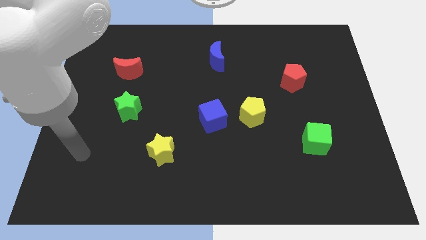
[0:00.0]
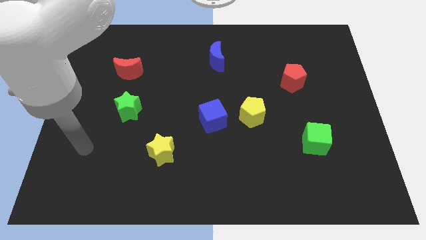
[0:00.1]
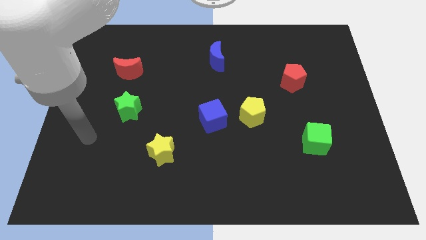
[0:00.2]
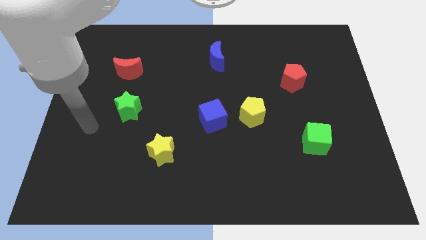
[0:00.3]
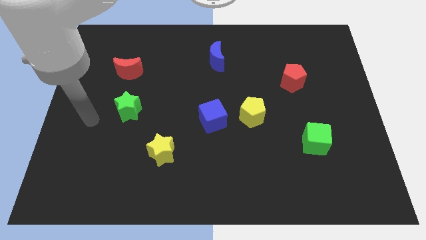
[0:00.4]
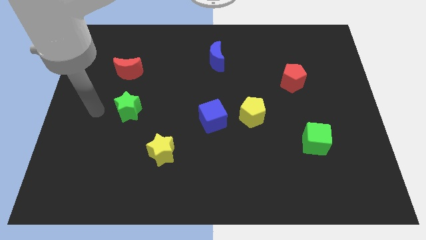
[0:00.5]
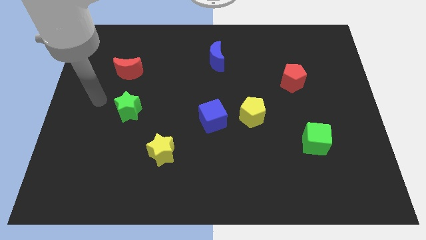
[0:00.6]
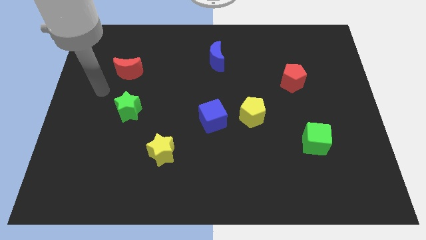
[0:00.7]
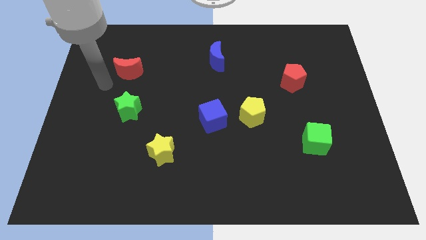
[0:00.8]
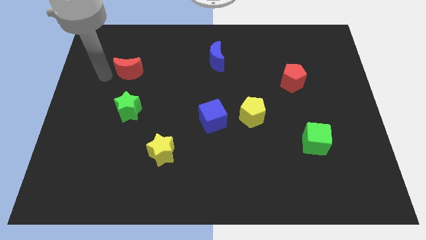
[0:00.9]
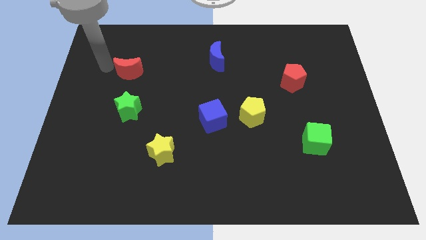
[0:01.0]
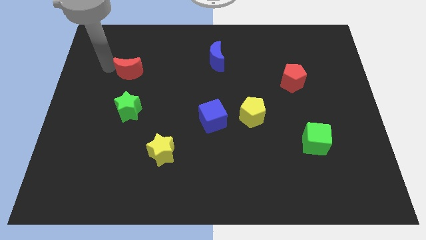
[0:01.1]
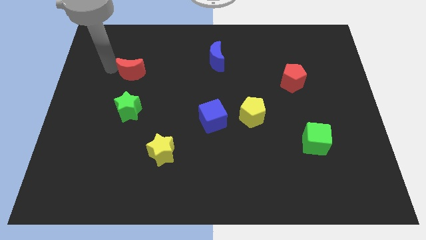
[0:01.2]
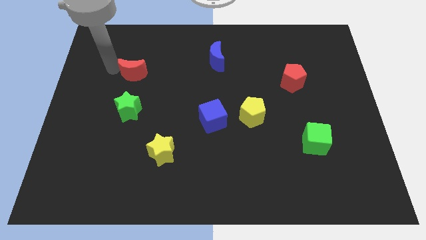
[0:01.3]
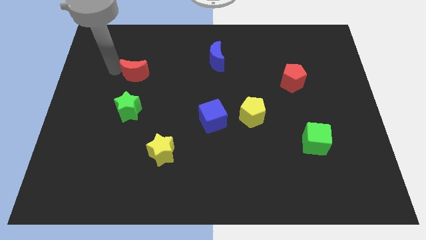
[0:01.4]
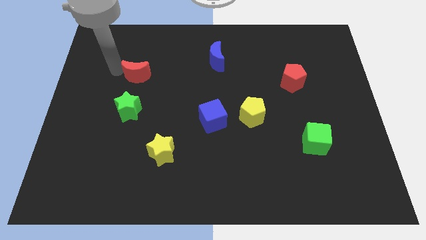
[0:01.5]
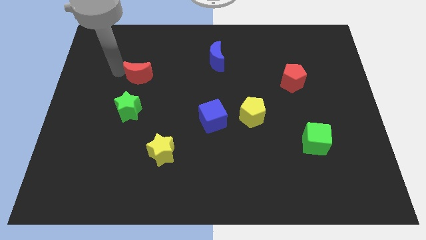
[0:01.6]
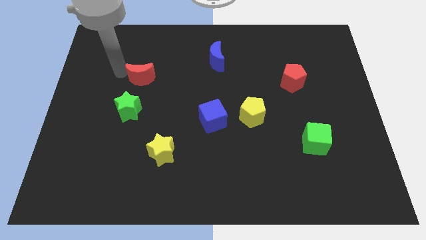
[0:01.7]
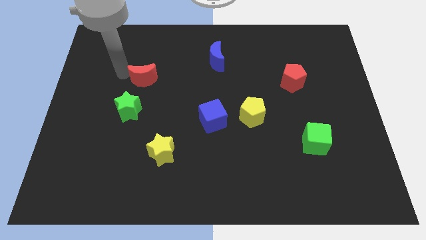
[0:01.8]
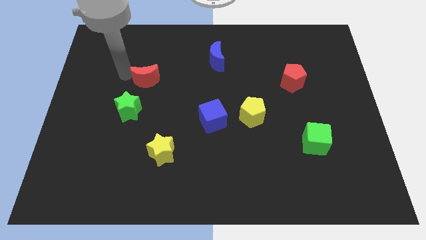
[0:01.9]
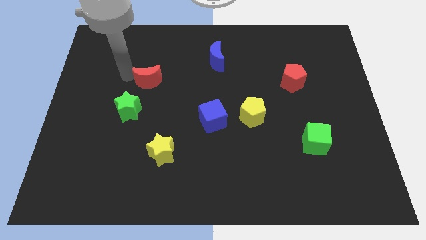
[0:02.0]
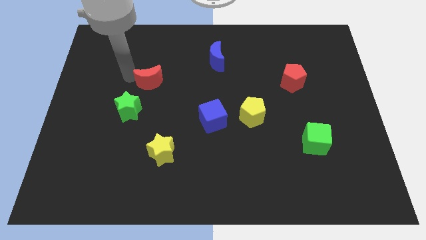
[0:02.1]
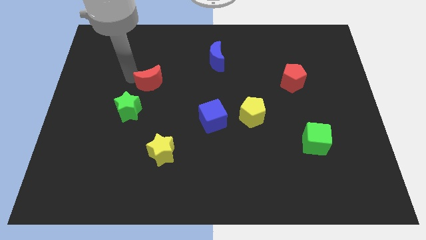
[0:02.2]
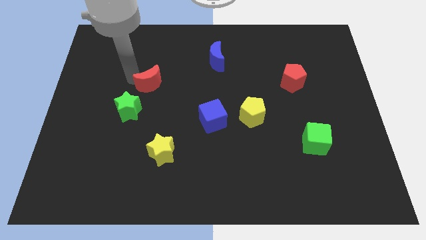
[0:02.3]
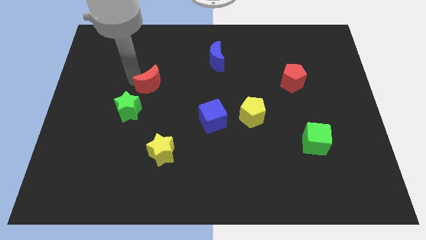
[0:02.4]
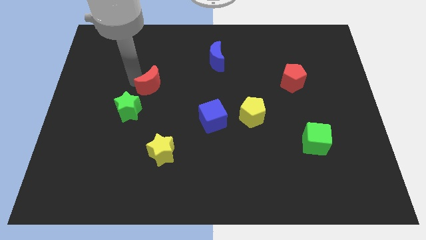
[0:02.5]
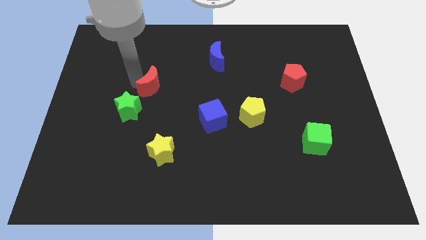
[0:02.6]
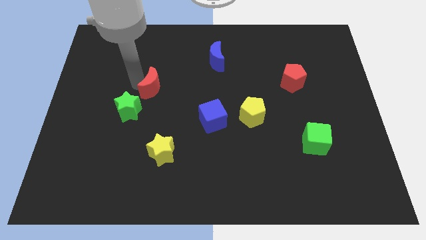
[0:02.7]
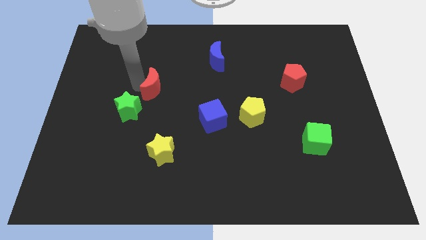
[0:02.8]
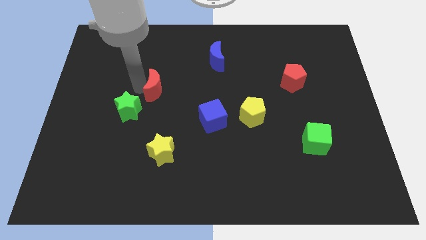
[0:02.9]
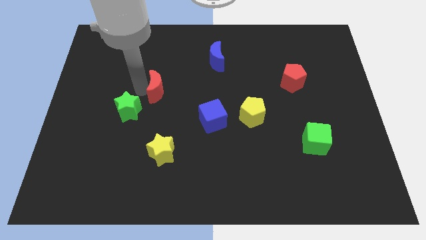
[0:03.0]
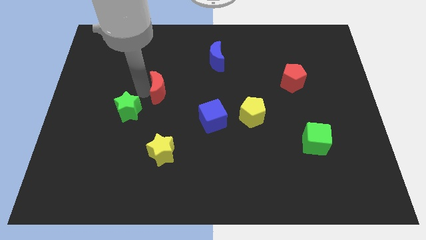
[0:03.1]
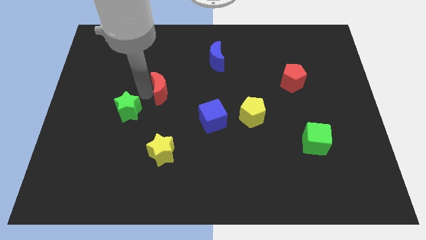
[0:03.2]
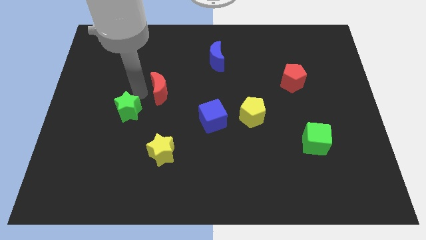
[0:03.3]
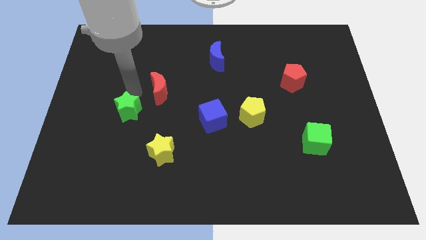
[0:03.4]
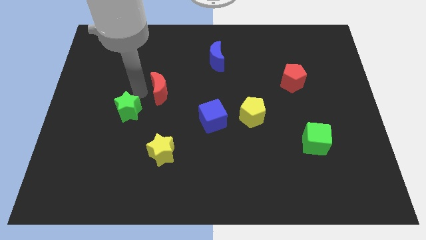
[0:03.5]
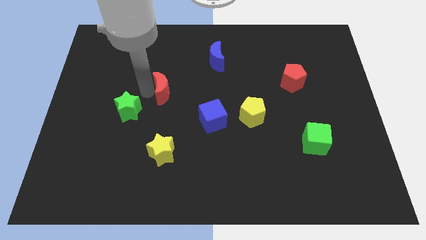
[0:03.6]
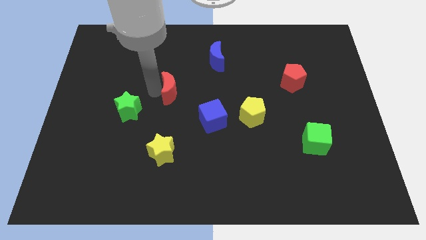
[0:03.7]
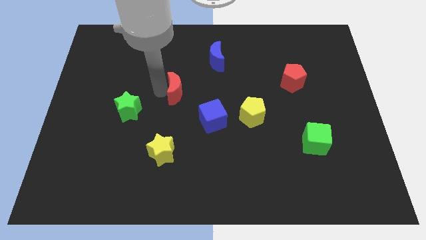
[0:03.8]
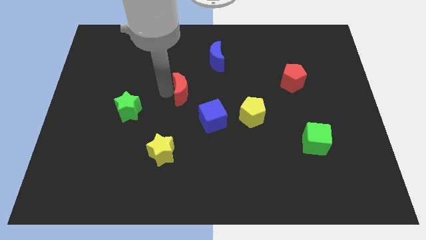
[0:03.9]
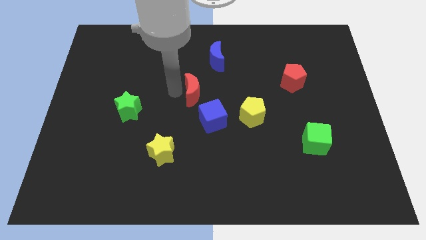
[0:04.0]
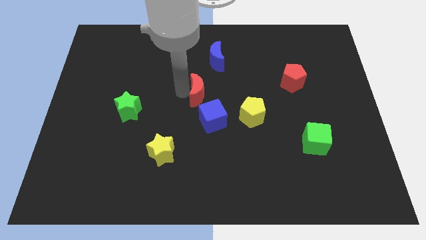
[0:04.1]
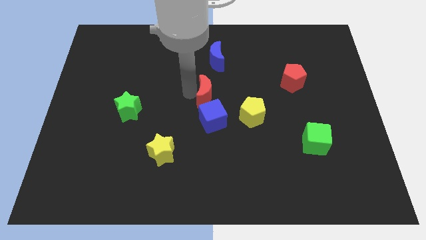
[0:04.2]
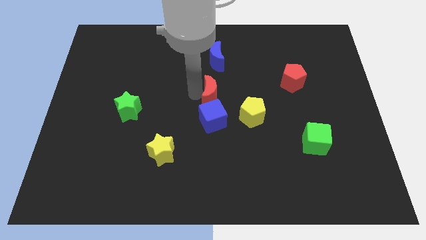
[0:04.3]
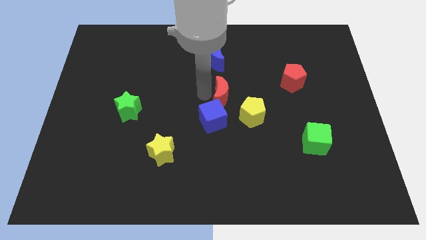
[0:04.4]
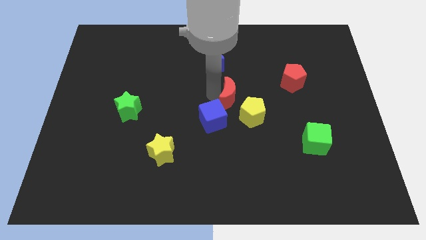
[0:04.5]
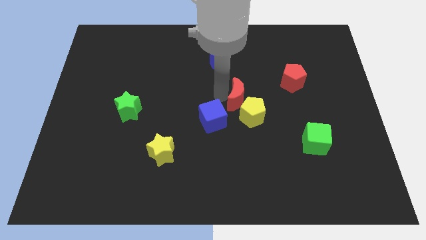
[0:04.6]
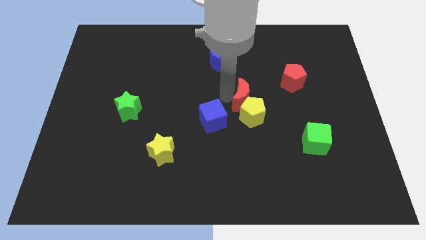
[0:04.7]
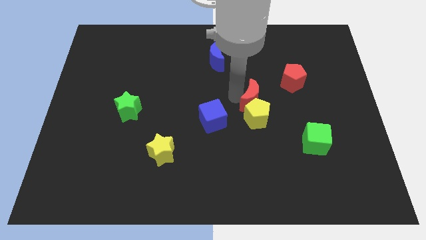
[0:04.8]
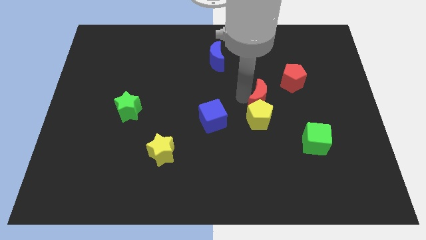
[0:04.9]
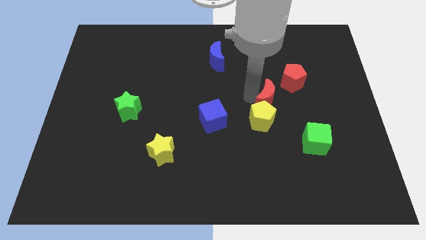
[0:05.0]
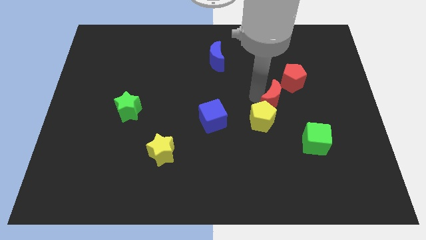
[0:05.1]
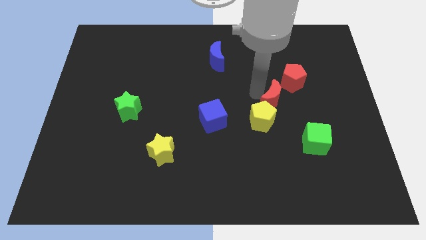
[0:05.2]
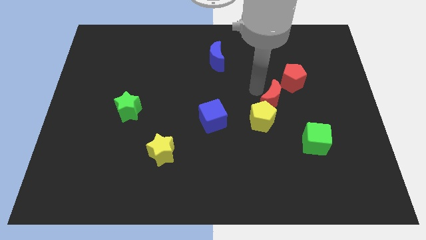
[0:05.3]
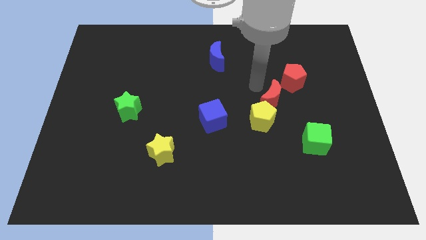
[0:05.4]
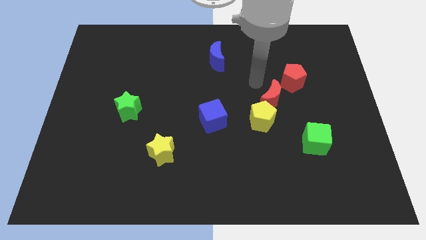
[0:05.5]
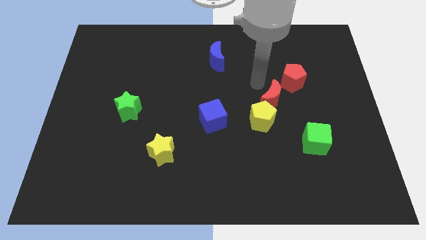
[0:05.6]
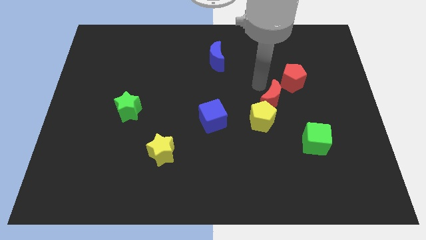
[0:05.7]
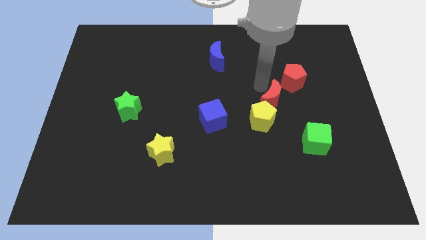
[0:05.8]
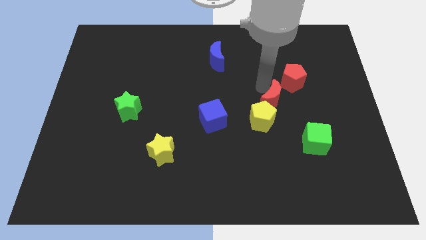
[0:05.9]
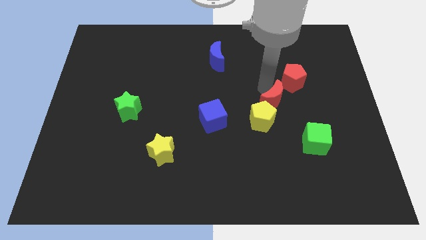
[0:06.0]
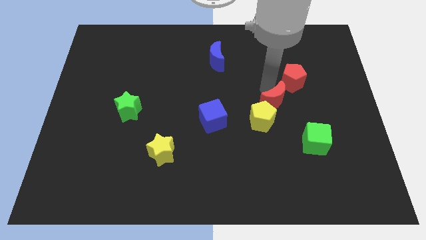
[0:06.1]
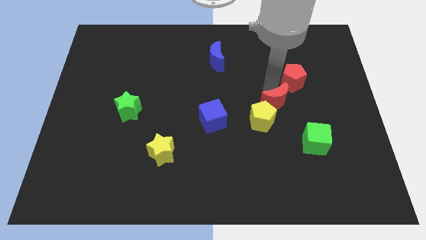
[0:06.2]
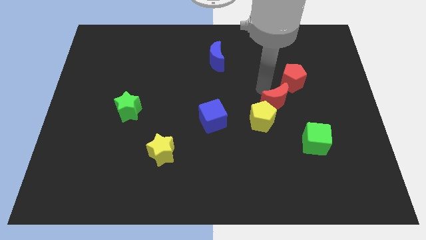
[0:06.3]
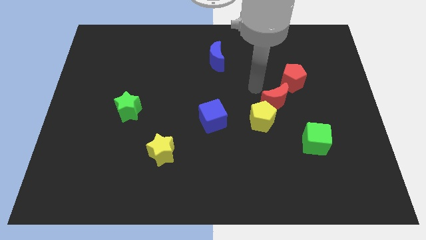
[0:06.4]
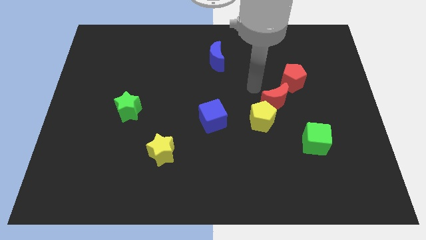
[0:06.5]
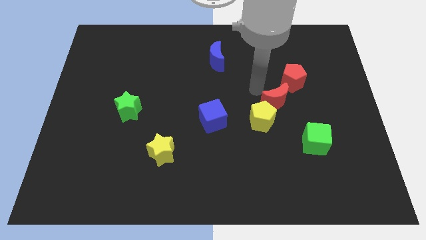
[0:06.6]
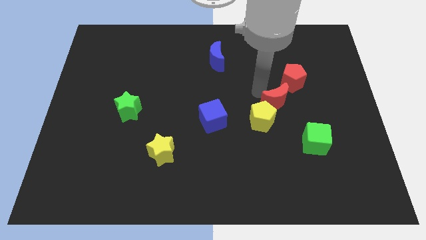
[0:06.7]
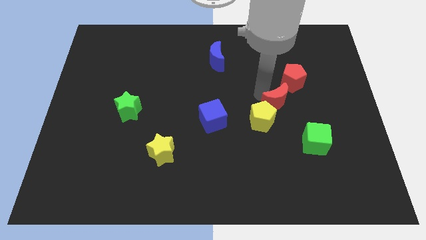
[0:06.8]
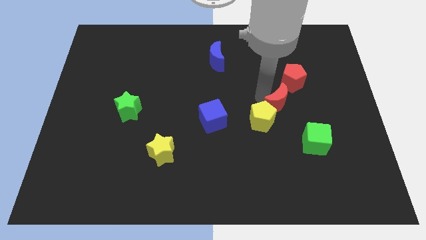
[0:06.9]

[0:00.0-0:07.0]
move the red moon just right of the yellow pentagon
